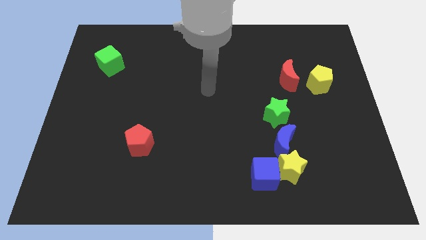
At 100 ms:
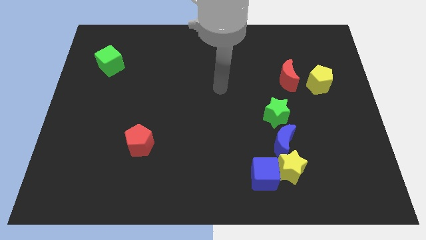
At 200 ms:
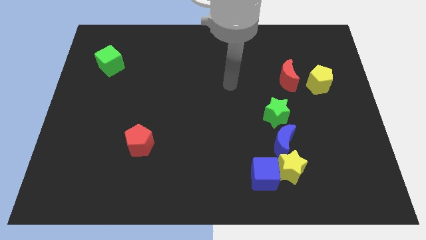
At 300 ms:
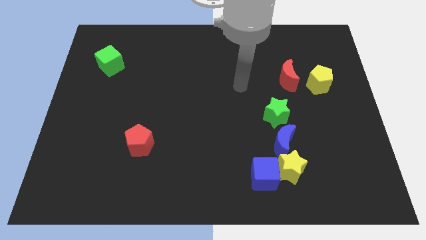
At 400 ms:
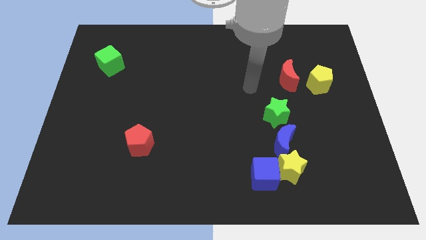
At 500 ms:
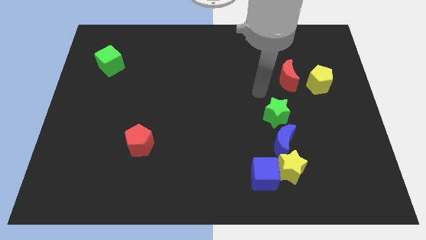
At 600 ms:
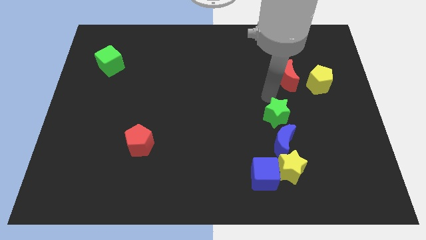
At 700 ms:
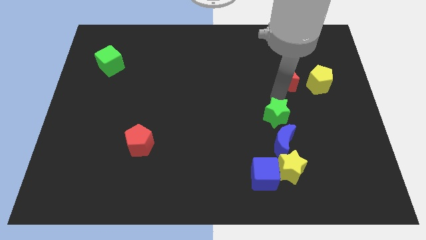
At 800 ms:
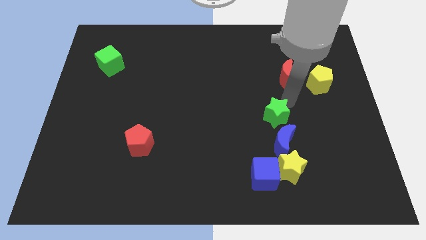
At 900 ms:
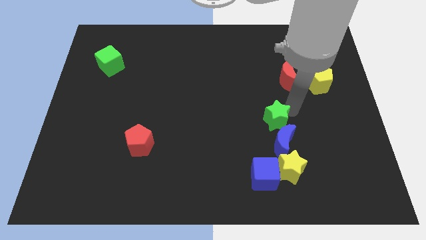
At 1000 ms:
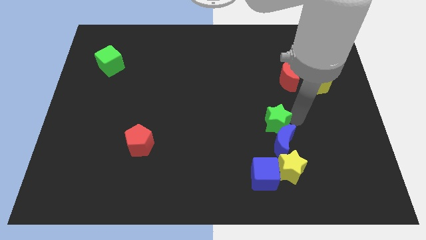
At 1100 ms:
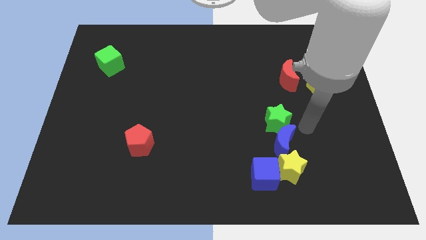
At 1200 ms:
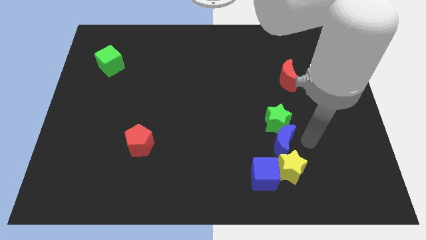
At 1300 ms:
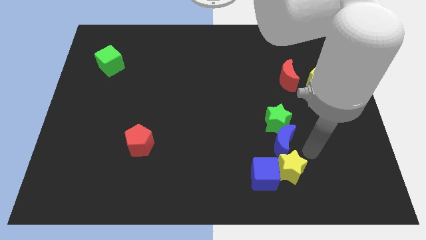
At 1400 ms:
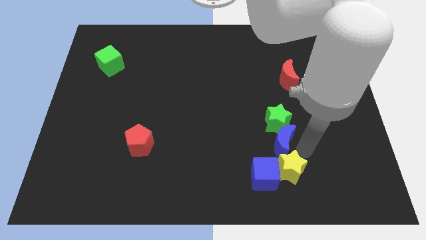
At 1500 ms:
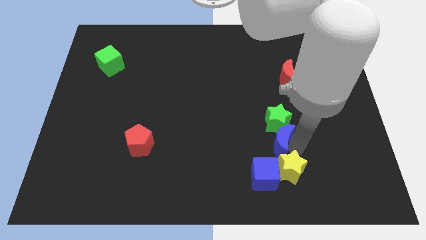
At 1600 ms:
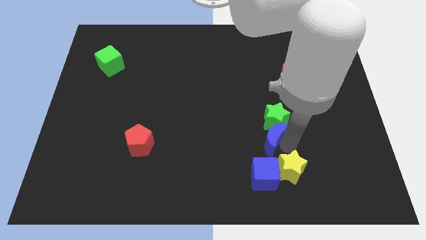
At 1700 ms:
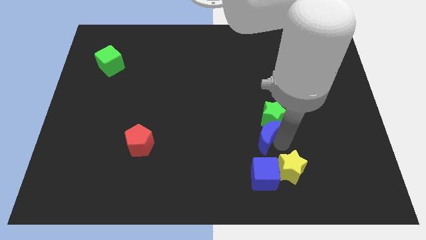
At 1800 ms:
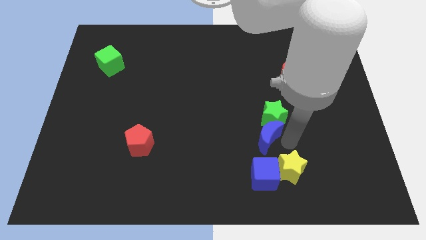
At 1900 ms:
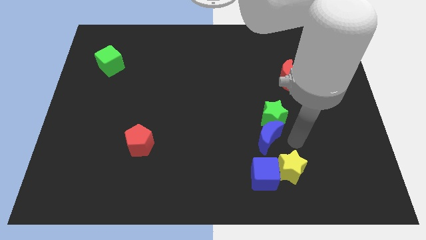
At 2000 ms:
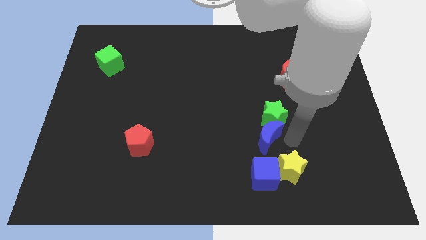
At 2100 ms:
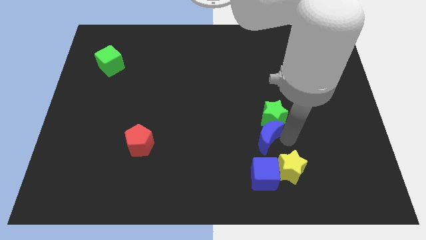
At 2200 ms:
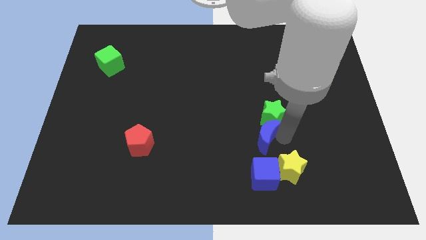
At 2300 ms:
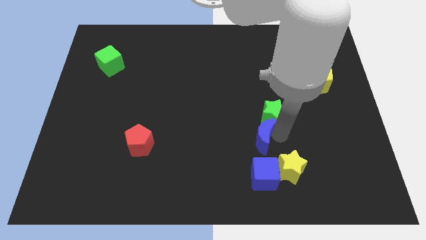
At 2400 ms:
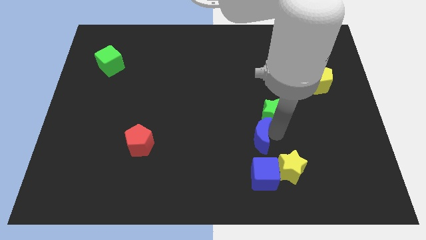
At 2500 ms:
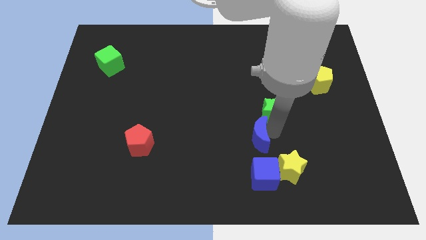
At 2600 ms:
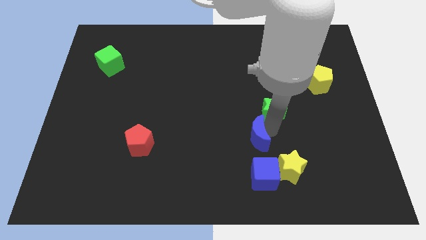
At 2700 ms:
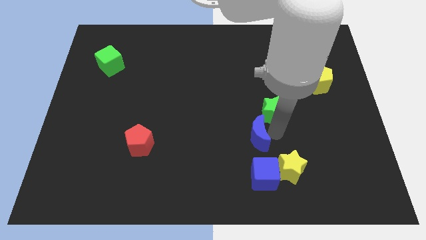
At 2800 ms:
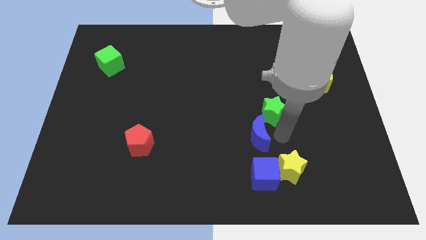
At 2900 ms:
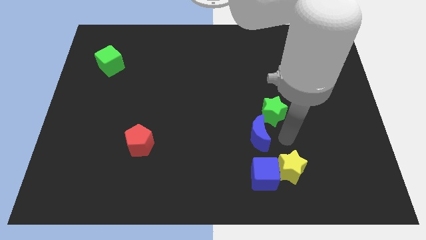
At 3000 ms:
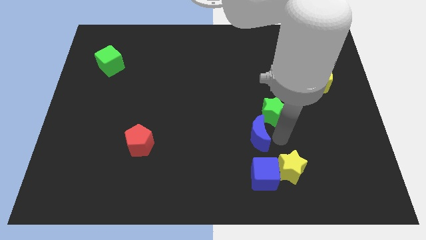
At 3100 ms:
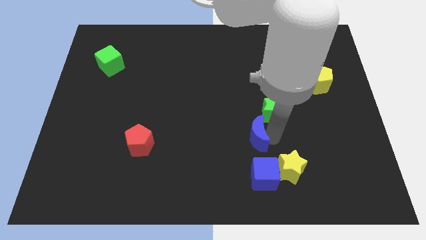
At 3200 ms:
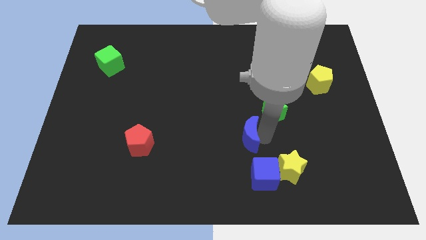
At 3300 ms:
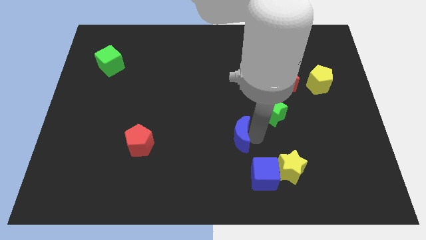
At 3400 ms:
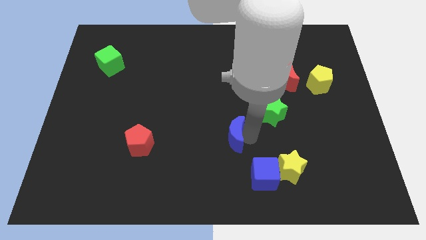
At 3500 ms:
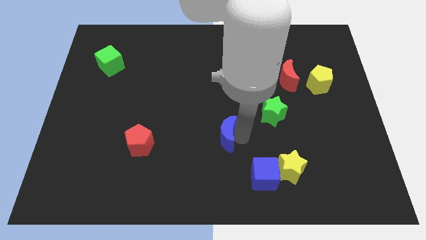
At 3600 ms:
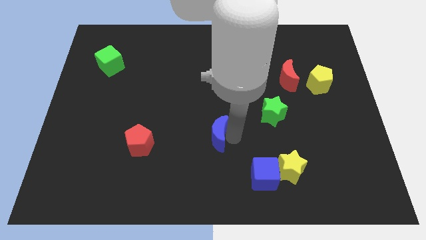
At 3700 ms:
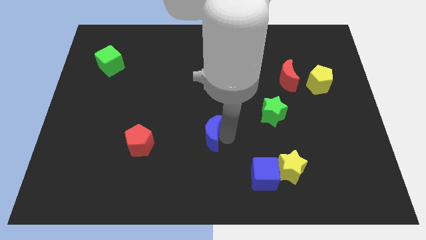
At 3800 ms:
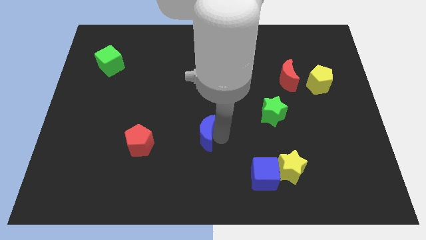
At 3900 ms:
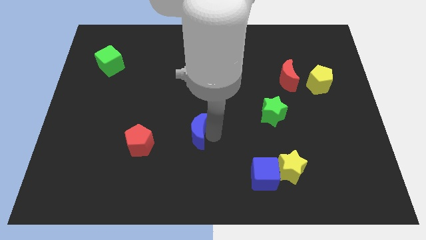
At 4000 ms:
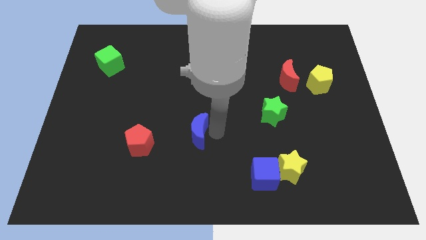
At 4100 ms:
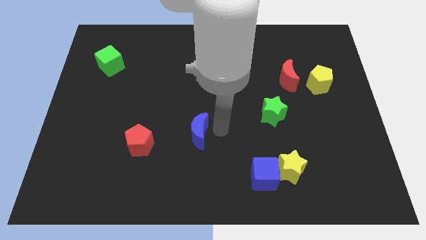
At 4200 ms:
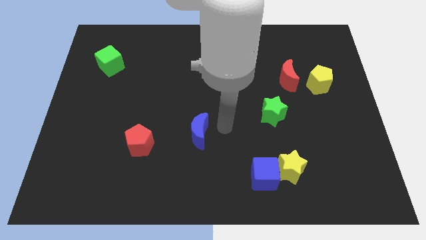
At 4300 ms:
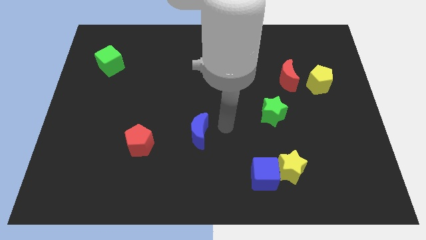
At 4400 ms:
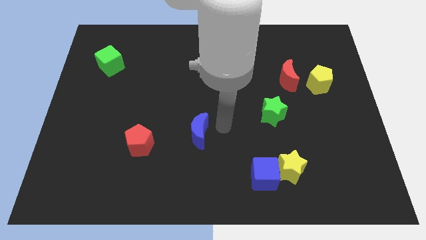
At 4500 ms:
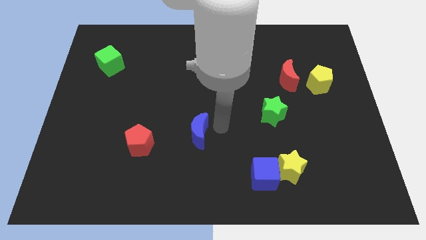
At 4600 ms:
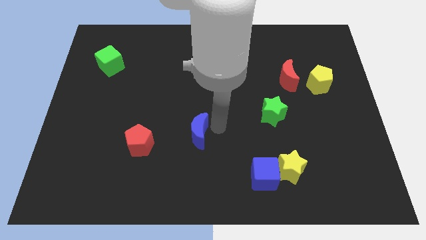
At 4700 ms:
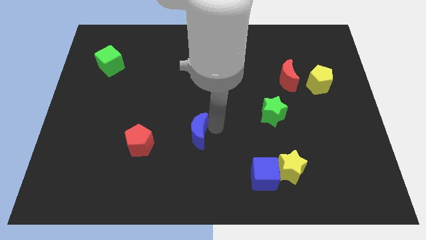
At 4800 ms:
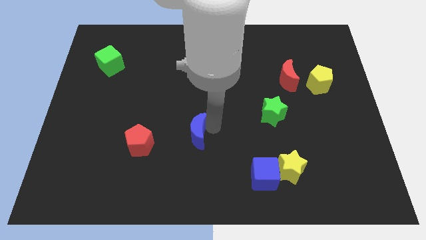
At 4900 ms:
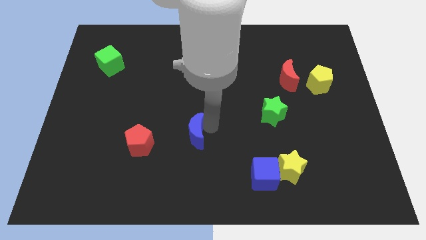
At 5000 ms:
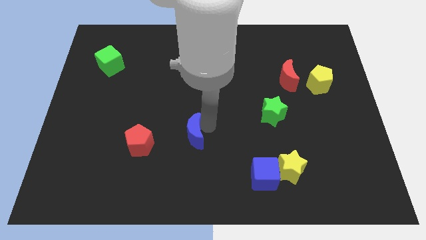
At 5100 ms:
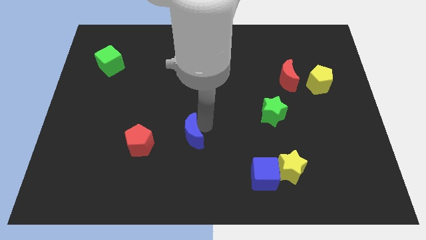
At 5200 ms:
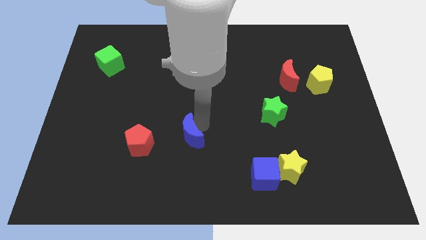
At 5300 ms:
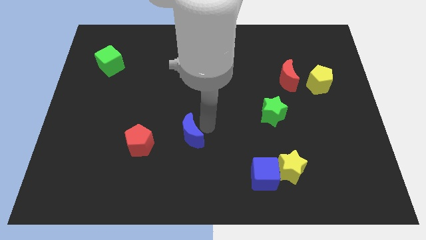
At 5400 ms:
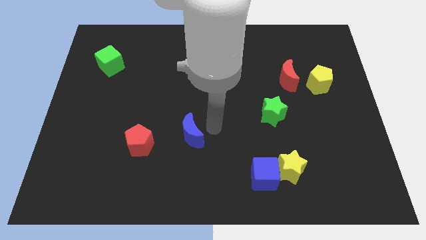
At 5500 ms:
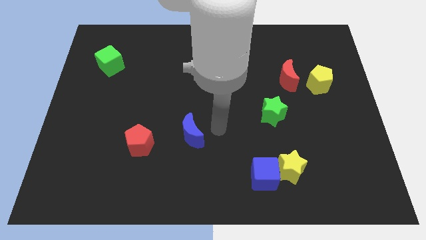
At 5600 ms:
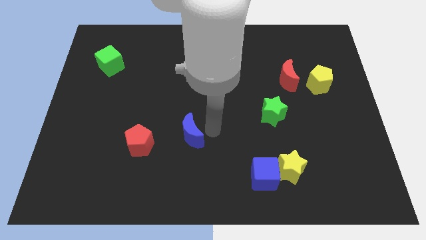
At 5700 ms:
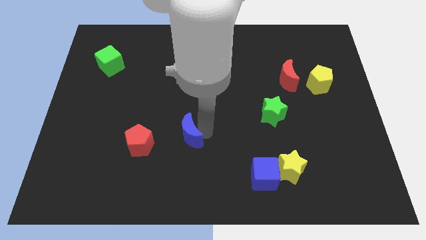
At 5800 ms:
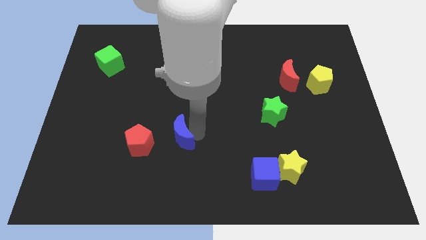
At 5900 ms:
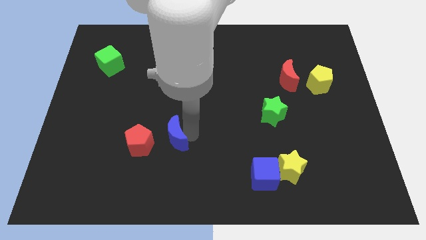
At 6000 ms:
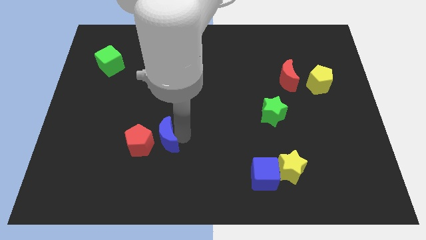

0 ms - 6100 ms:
put the blue moon close to the red pentagon

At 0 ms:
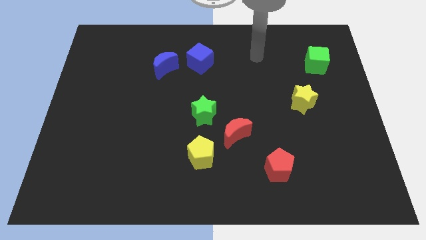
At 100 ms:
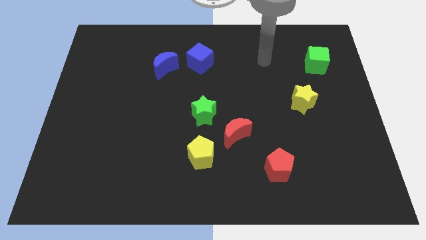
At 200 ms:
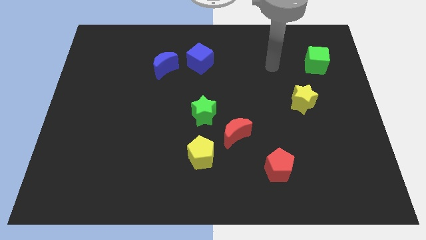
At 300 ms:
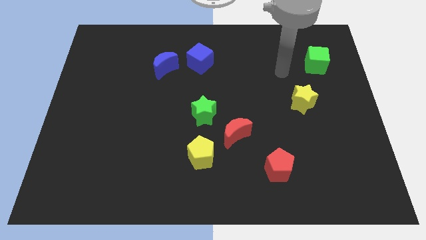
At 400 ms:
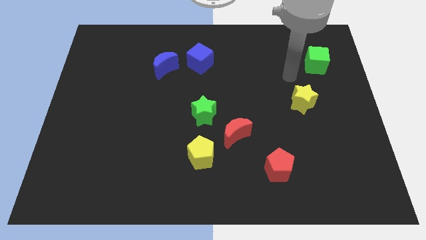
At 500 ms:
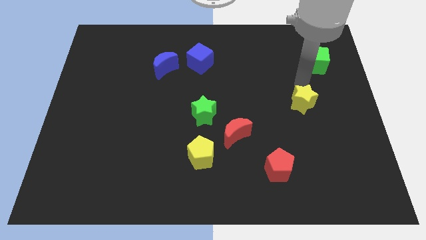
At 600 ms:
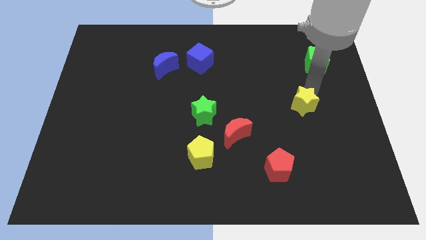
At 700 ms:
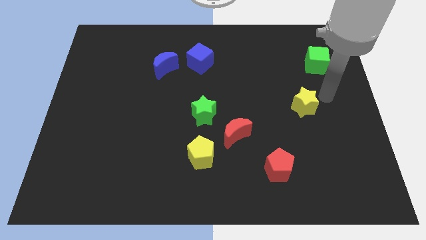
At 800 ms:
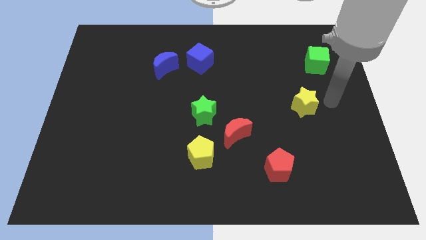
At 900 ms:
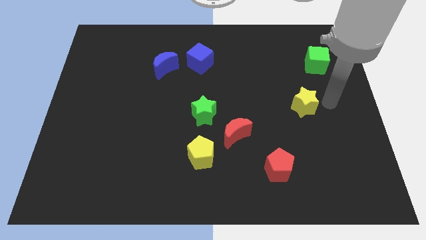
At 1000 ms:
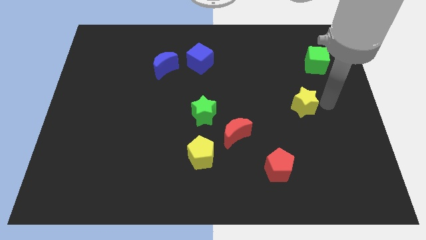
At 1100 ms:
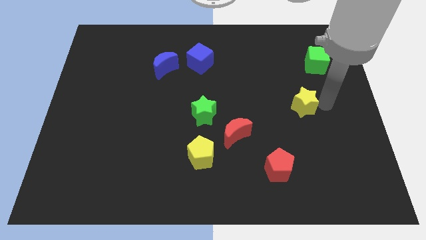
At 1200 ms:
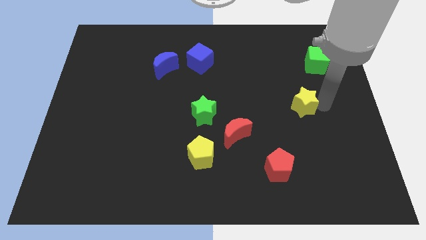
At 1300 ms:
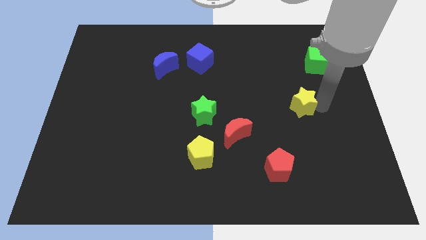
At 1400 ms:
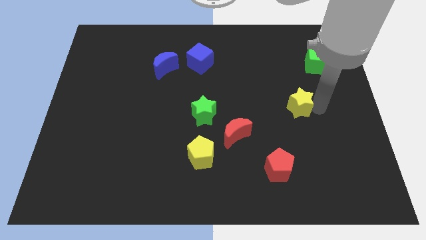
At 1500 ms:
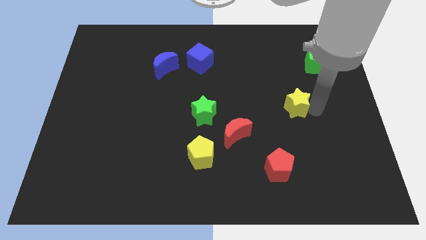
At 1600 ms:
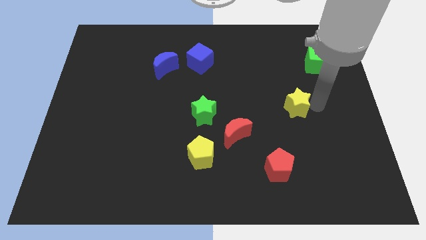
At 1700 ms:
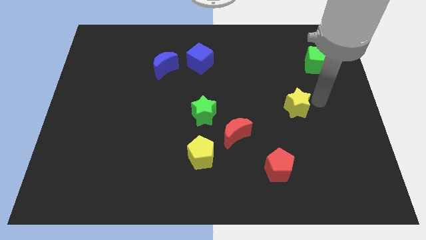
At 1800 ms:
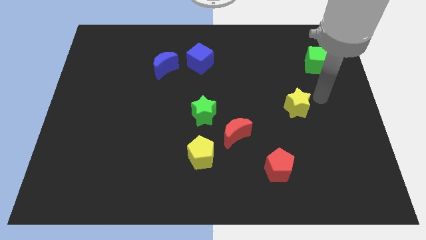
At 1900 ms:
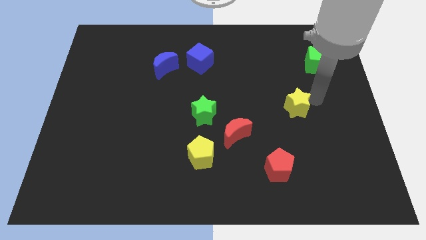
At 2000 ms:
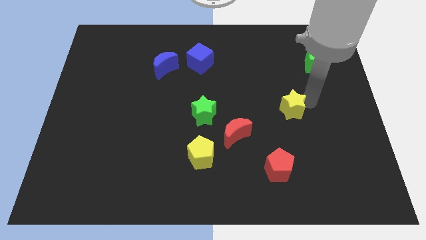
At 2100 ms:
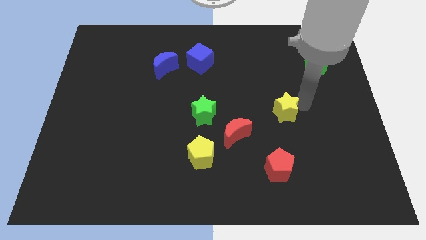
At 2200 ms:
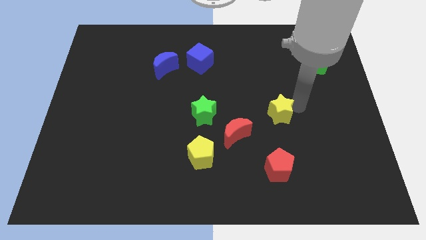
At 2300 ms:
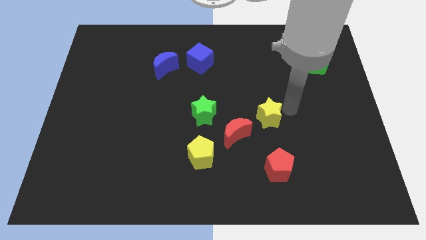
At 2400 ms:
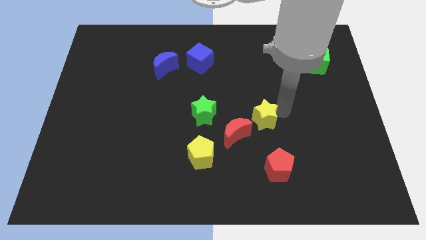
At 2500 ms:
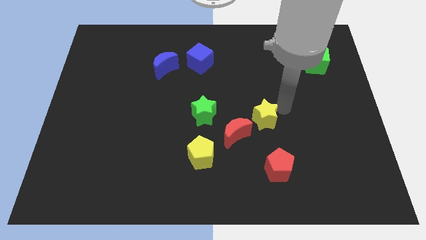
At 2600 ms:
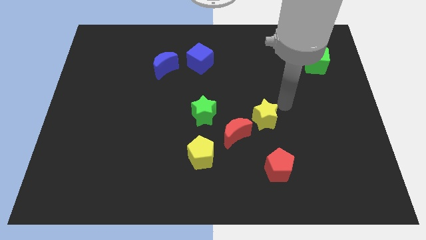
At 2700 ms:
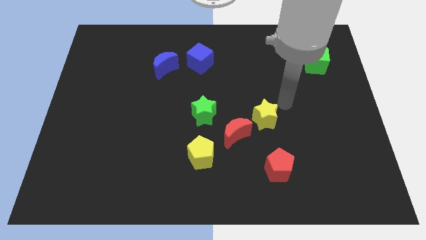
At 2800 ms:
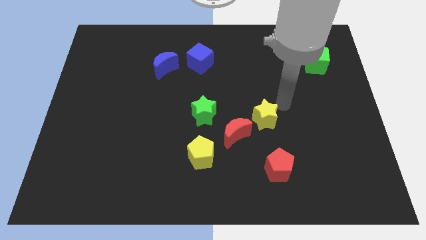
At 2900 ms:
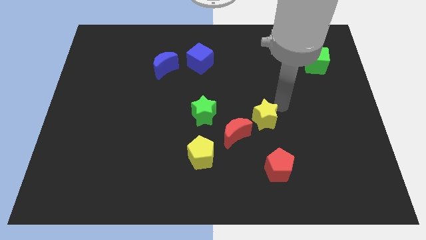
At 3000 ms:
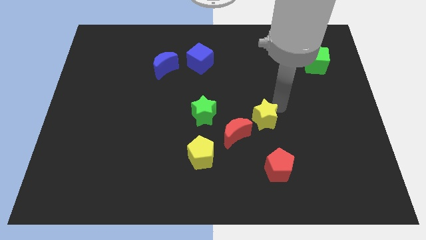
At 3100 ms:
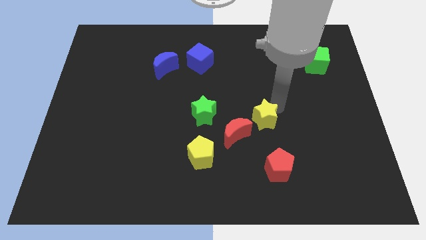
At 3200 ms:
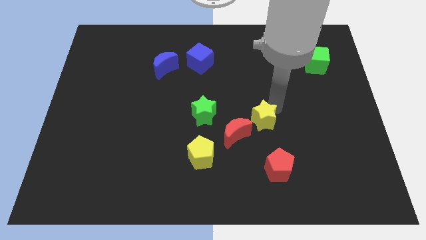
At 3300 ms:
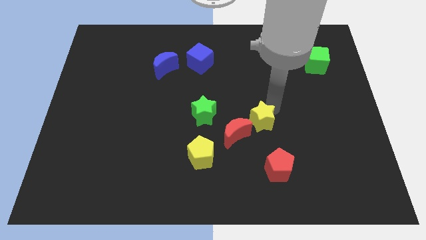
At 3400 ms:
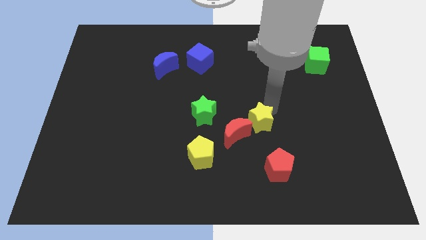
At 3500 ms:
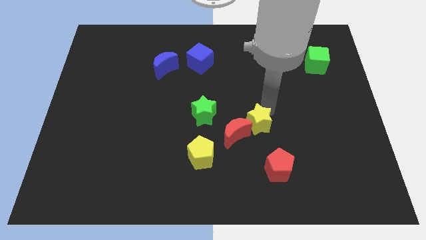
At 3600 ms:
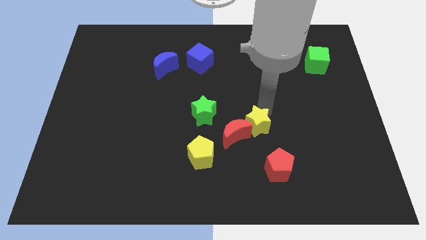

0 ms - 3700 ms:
move the yellow star close to the red moon
